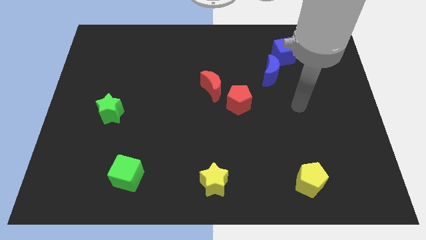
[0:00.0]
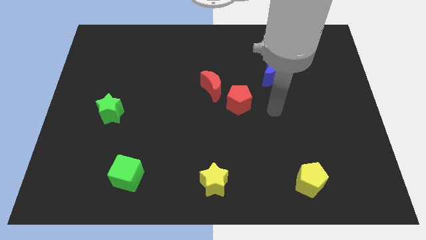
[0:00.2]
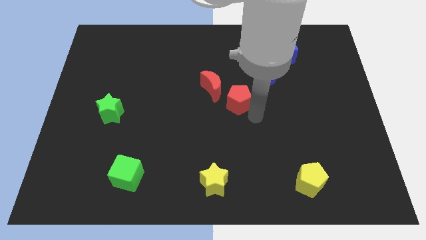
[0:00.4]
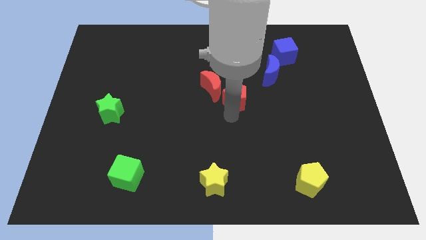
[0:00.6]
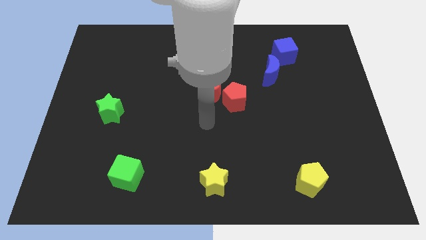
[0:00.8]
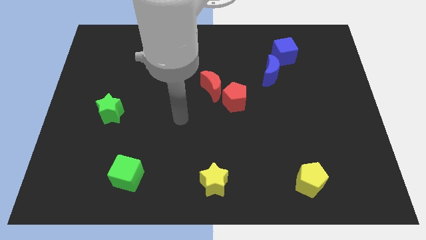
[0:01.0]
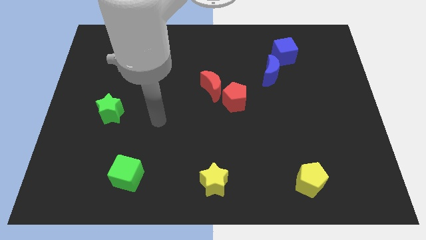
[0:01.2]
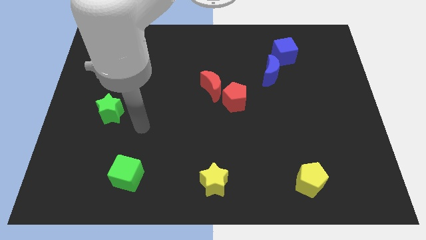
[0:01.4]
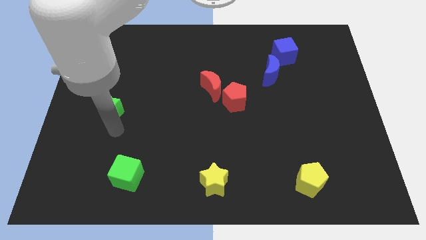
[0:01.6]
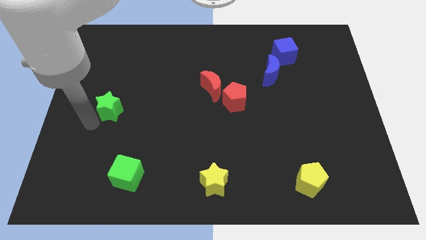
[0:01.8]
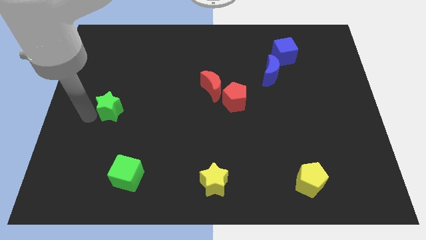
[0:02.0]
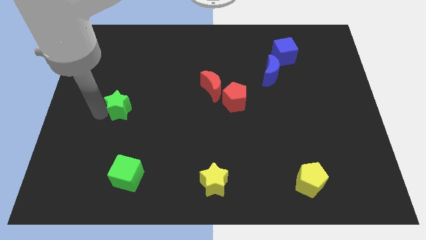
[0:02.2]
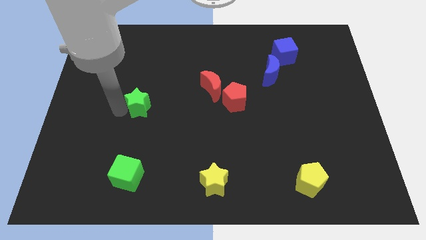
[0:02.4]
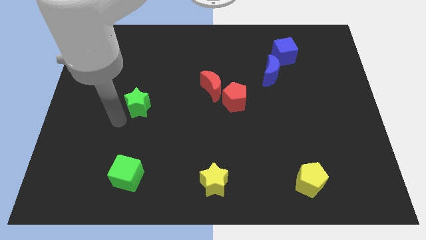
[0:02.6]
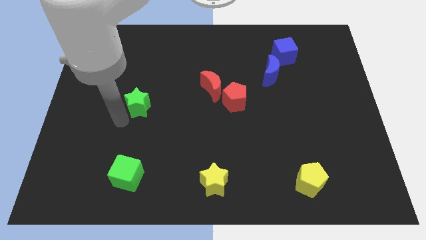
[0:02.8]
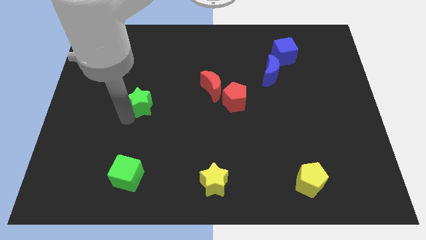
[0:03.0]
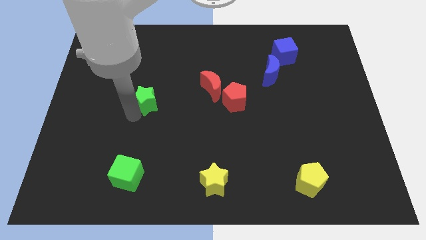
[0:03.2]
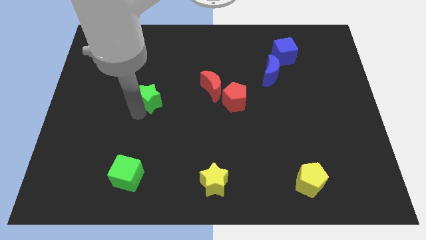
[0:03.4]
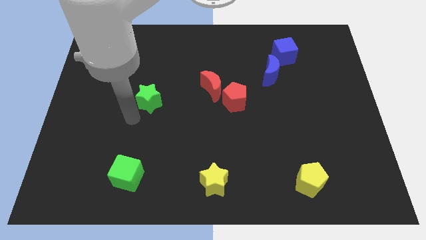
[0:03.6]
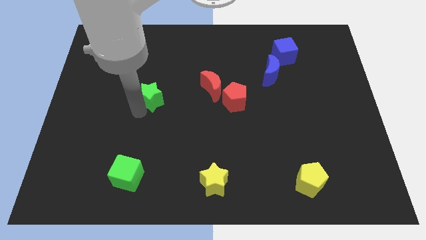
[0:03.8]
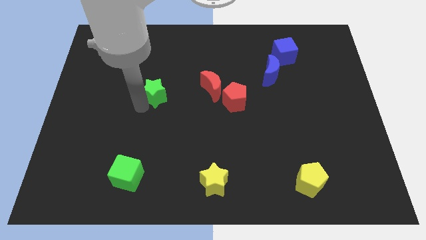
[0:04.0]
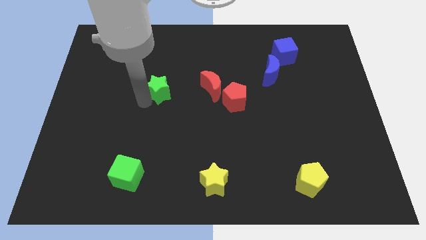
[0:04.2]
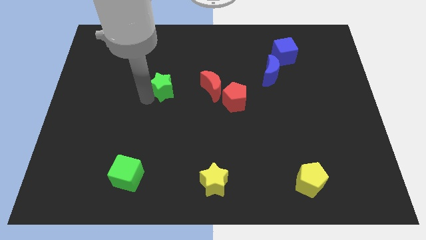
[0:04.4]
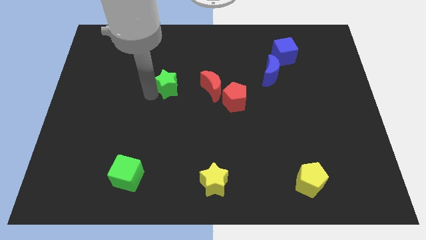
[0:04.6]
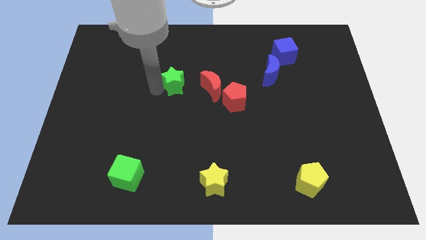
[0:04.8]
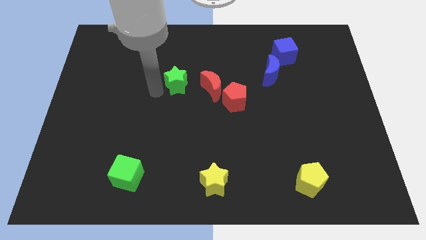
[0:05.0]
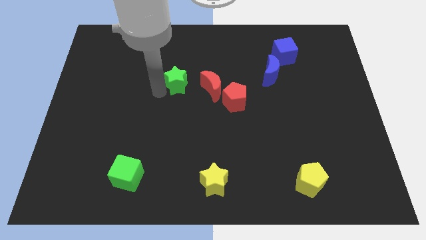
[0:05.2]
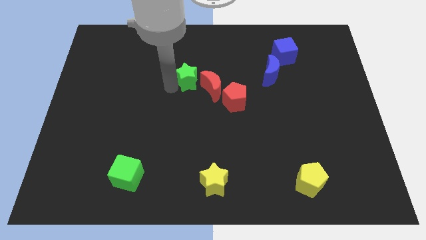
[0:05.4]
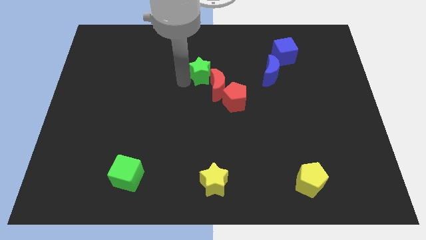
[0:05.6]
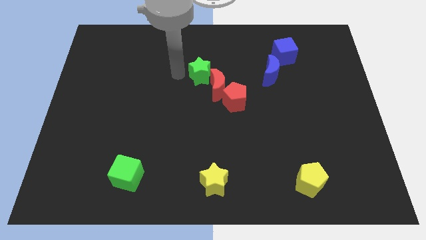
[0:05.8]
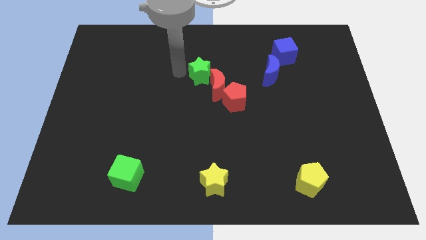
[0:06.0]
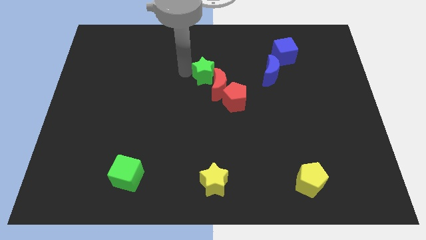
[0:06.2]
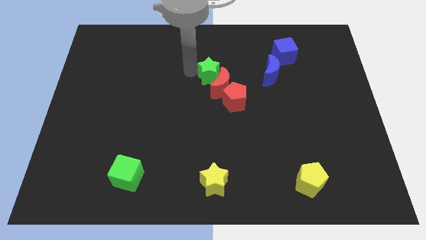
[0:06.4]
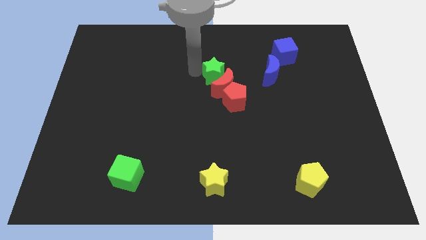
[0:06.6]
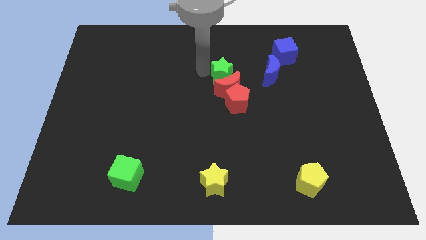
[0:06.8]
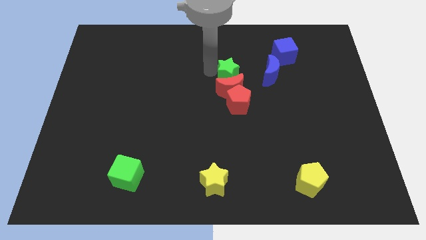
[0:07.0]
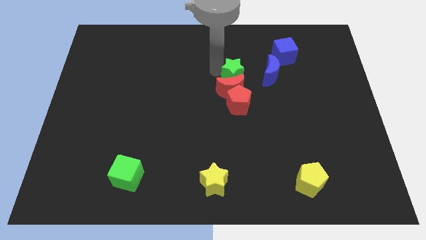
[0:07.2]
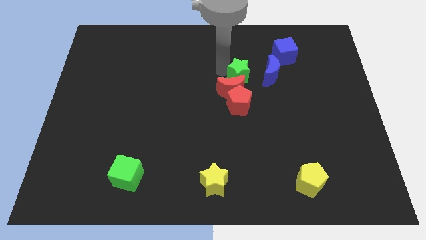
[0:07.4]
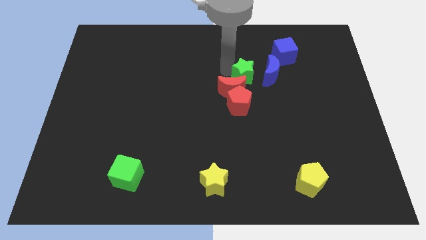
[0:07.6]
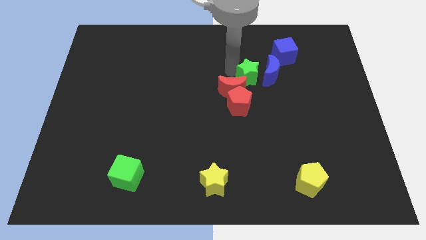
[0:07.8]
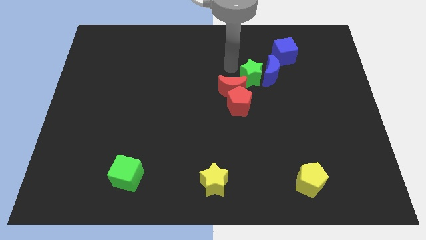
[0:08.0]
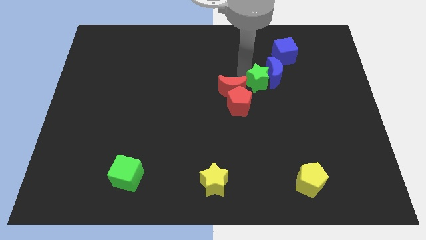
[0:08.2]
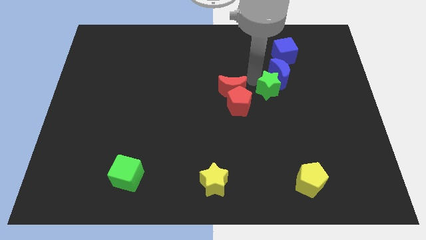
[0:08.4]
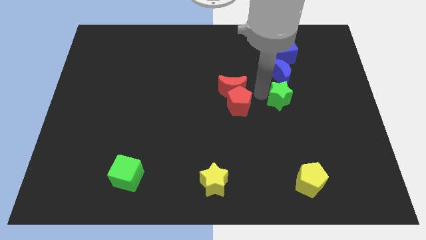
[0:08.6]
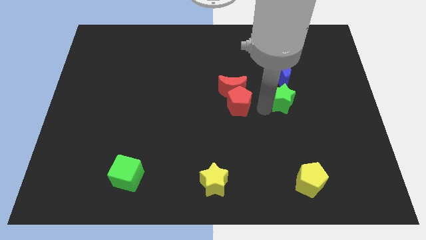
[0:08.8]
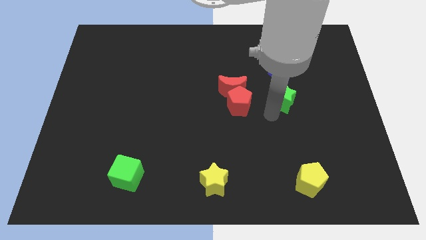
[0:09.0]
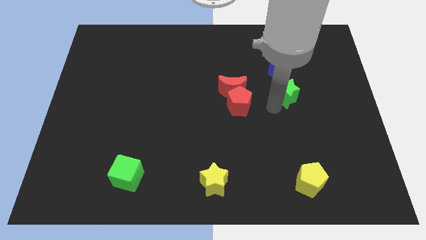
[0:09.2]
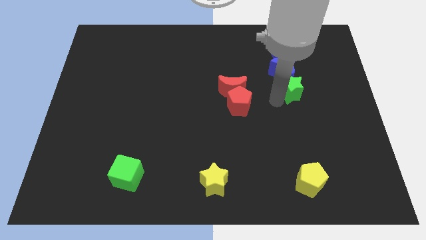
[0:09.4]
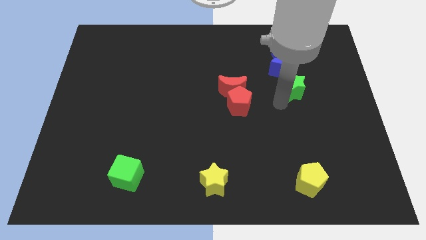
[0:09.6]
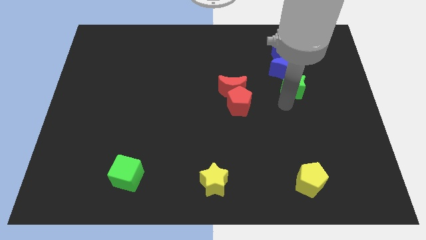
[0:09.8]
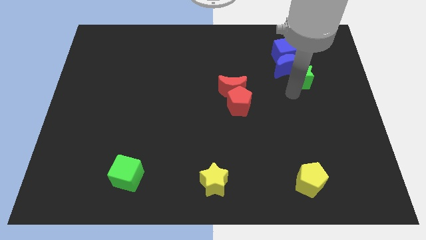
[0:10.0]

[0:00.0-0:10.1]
slide the green star to the bottom right of the blue cube

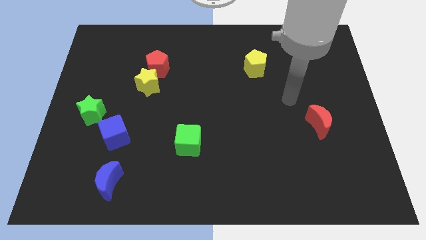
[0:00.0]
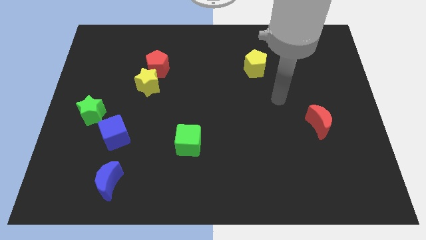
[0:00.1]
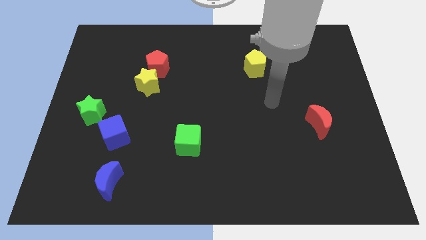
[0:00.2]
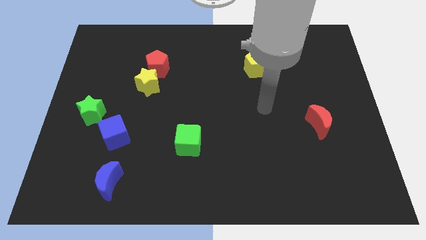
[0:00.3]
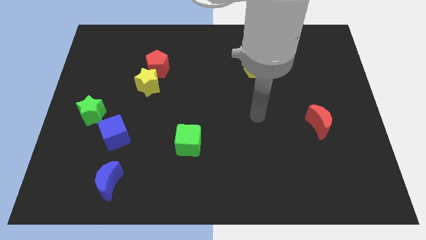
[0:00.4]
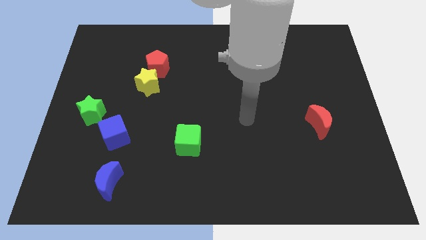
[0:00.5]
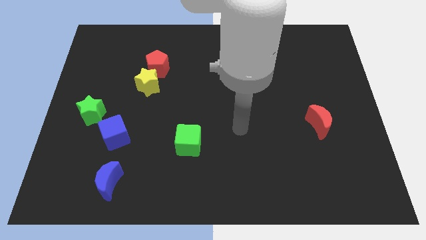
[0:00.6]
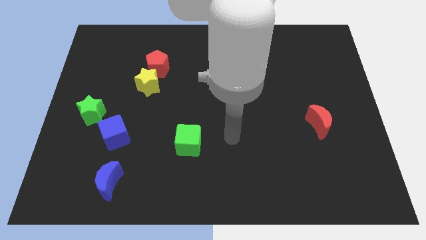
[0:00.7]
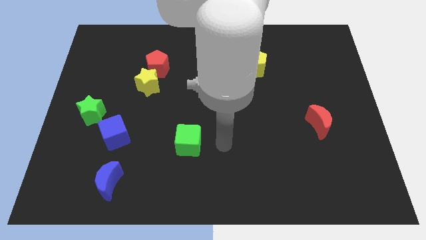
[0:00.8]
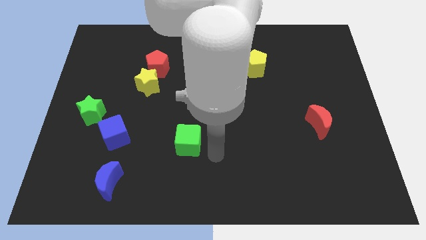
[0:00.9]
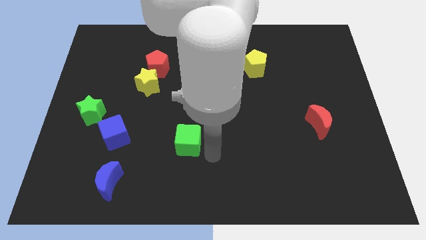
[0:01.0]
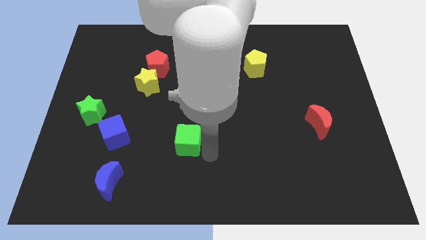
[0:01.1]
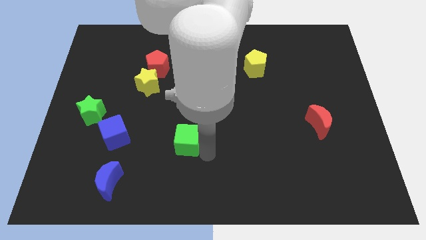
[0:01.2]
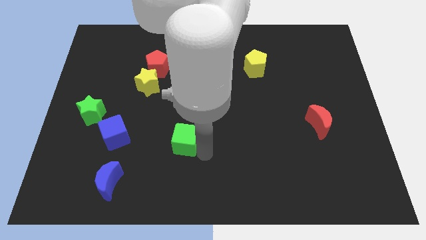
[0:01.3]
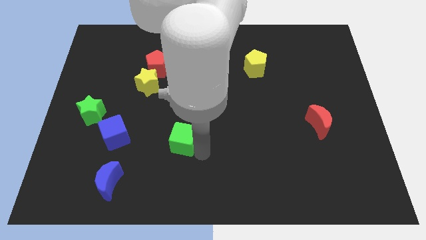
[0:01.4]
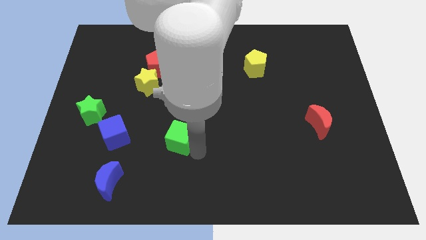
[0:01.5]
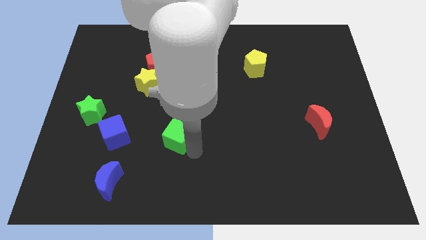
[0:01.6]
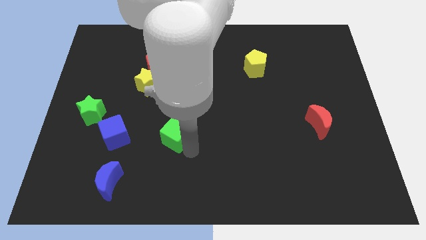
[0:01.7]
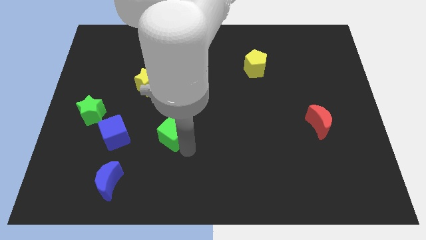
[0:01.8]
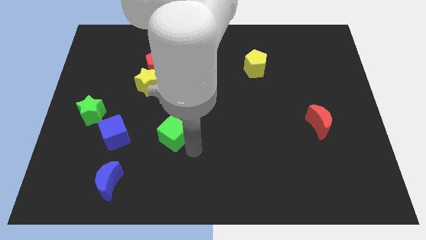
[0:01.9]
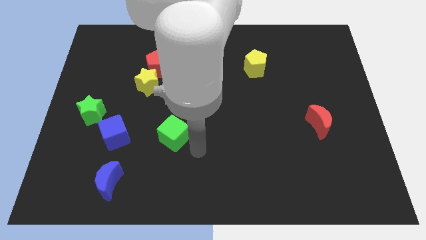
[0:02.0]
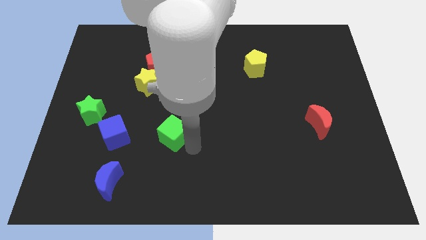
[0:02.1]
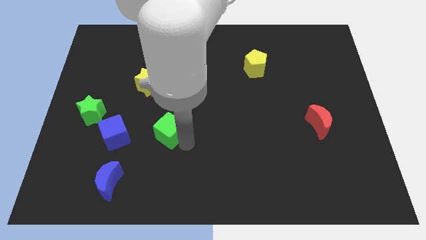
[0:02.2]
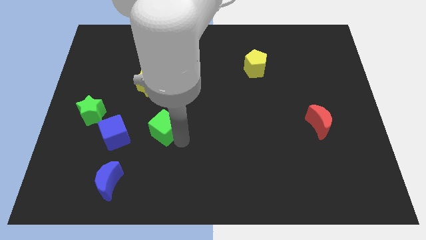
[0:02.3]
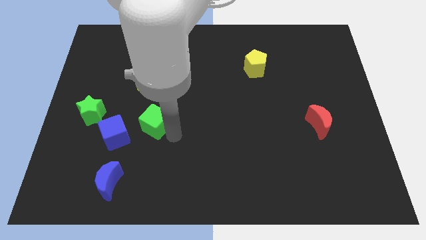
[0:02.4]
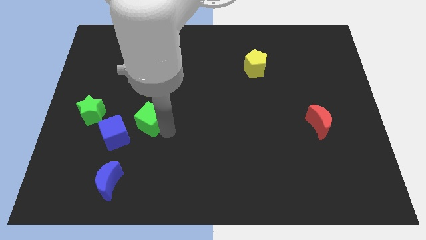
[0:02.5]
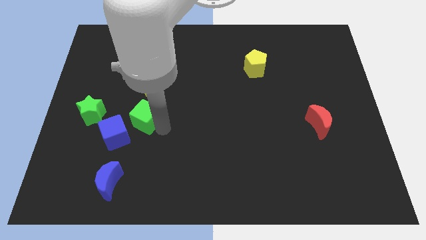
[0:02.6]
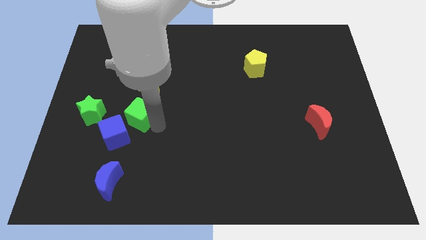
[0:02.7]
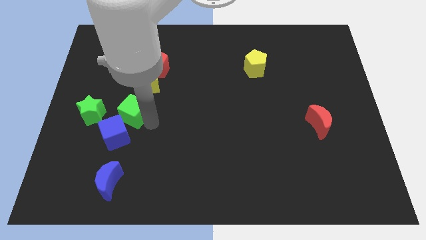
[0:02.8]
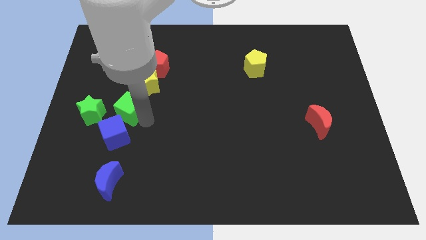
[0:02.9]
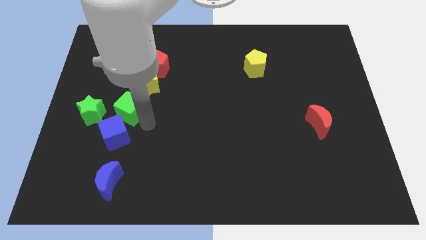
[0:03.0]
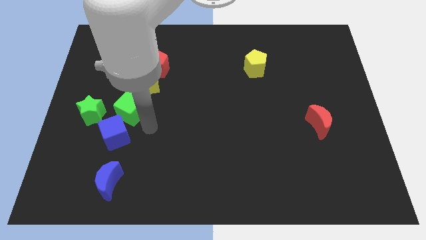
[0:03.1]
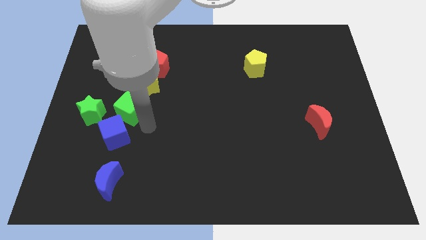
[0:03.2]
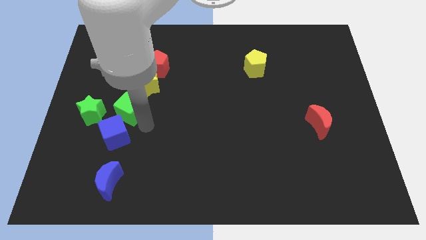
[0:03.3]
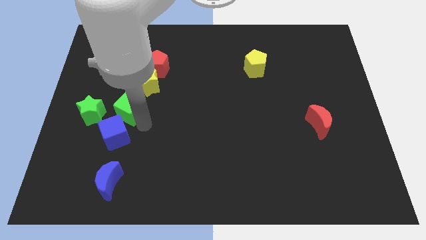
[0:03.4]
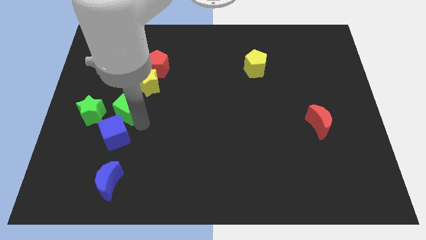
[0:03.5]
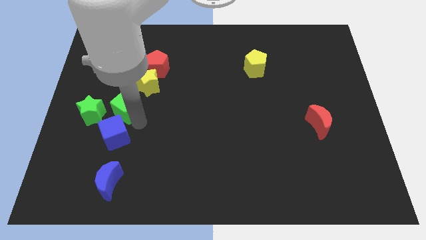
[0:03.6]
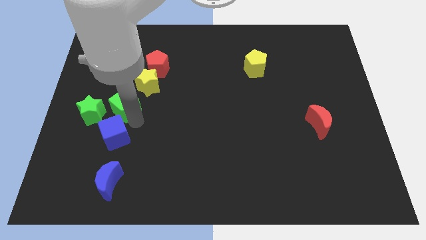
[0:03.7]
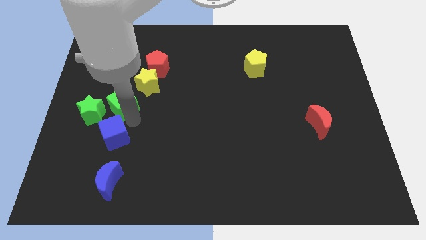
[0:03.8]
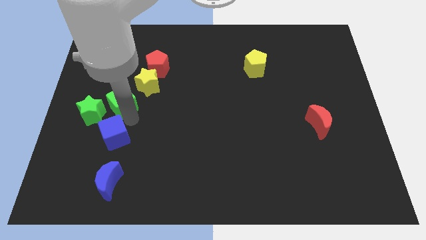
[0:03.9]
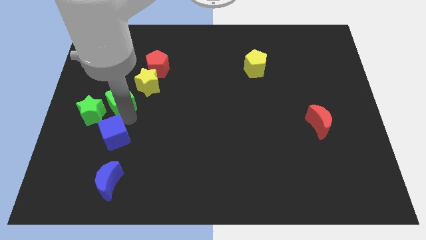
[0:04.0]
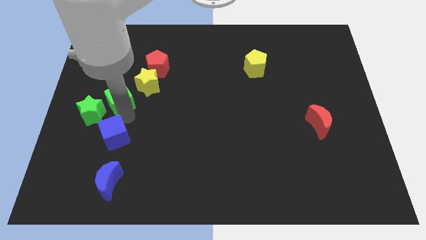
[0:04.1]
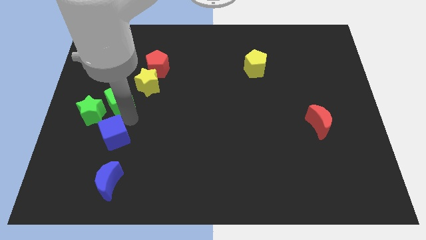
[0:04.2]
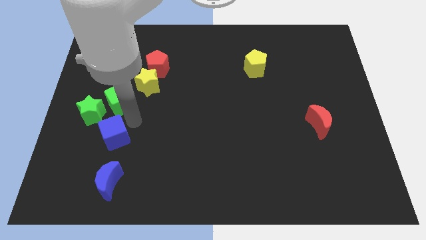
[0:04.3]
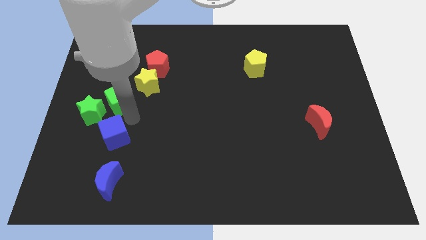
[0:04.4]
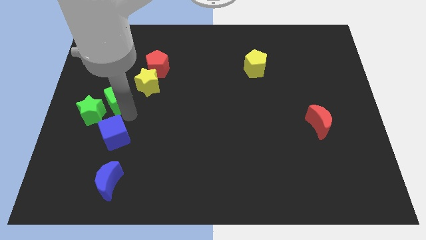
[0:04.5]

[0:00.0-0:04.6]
push the green cube just left of the yellow star
